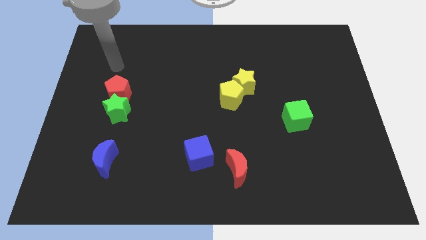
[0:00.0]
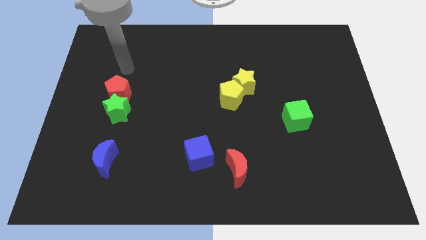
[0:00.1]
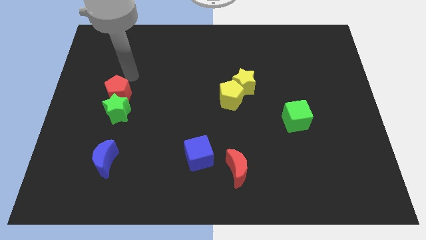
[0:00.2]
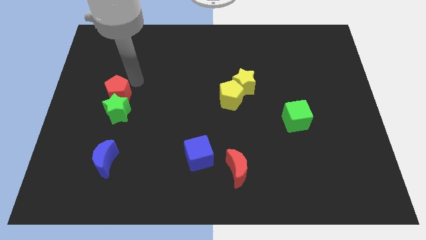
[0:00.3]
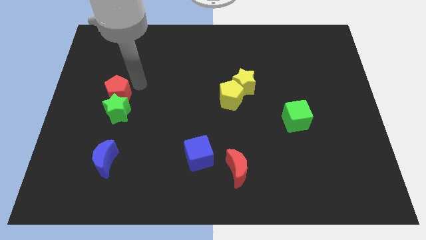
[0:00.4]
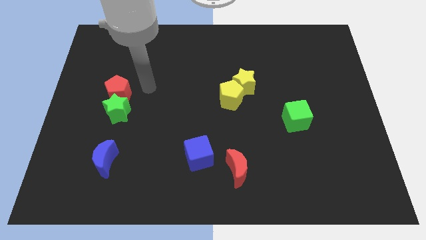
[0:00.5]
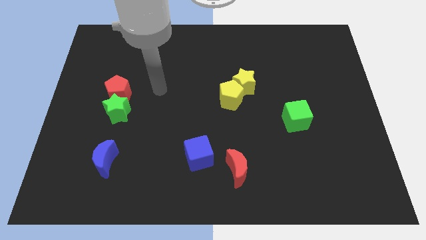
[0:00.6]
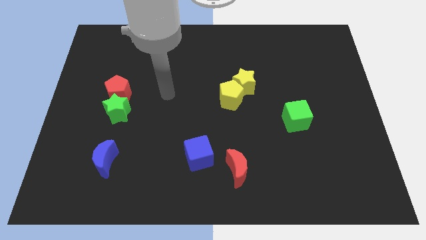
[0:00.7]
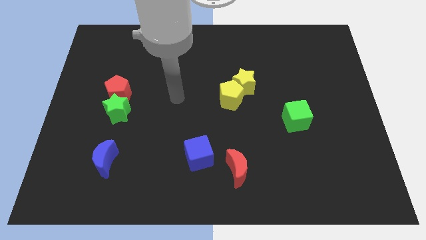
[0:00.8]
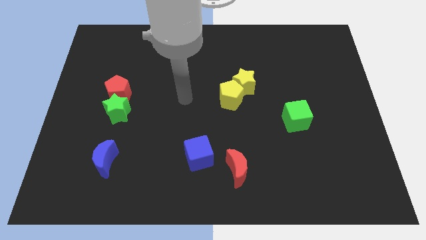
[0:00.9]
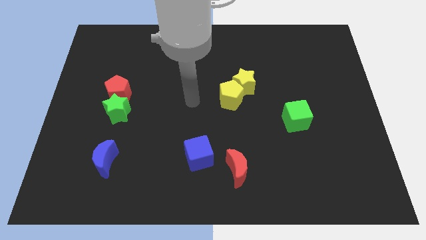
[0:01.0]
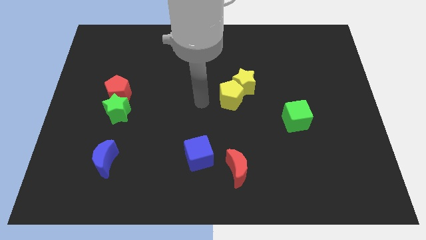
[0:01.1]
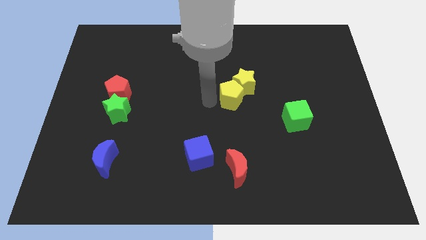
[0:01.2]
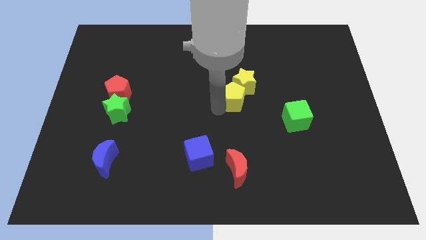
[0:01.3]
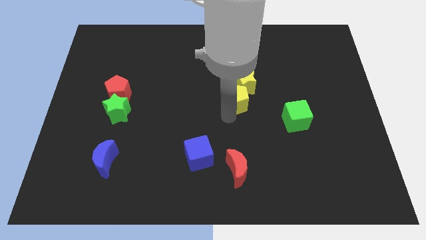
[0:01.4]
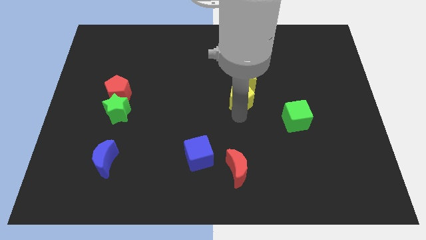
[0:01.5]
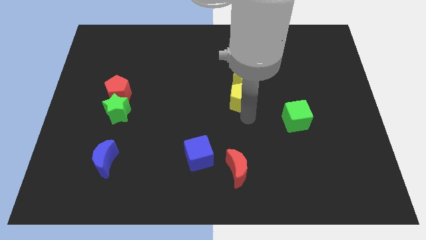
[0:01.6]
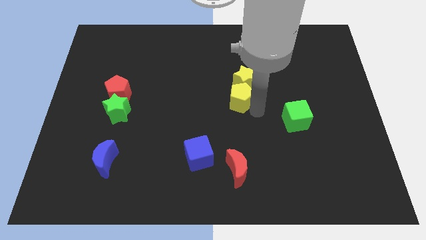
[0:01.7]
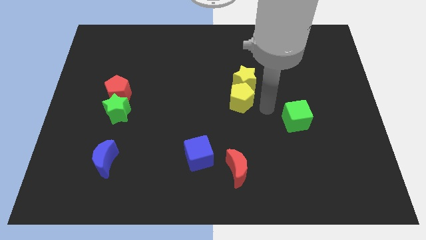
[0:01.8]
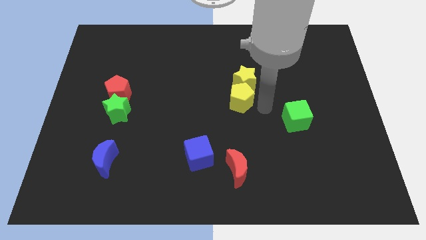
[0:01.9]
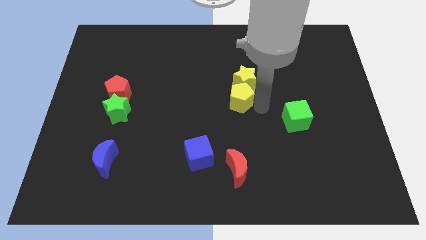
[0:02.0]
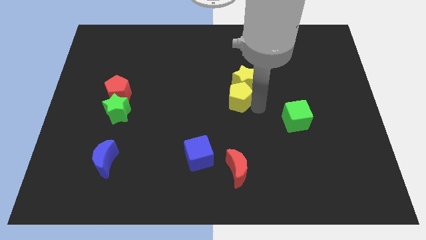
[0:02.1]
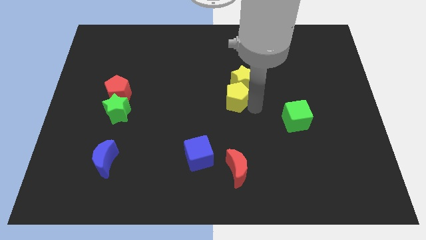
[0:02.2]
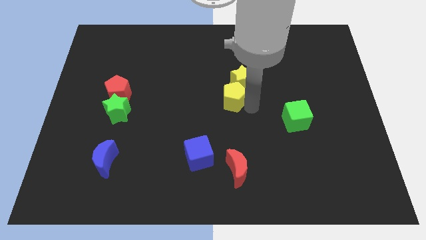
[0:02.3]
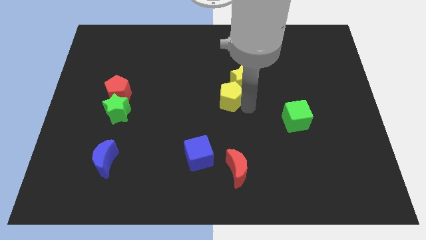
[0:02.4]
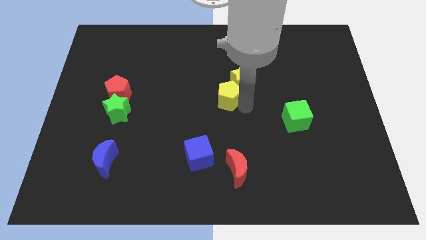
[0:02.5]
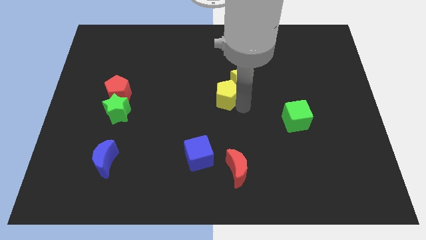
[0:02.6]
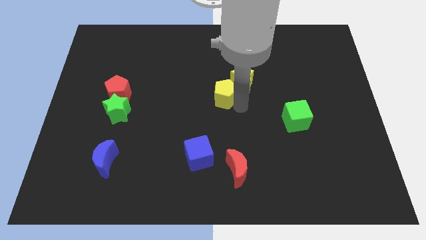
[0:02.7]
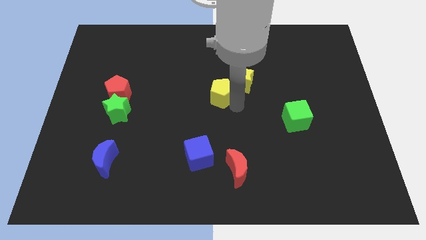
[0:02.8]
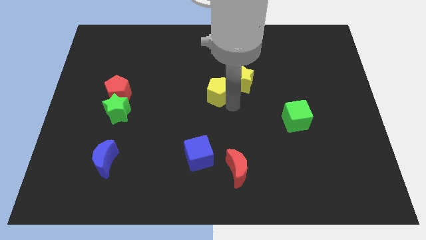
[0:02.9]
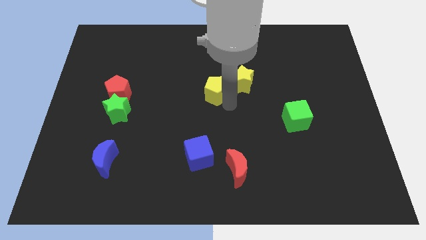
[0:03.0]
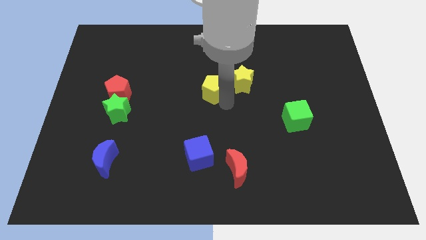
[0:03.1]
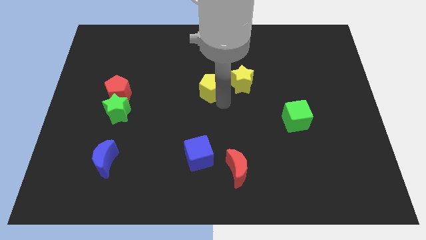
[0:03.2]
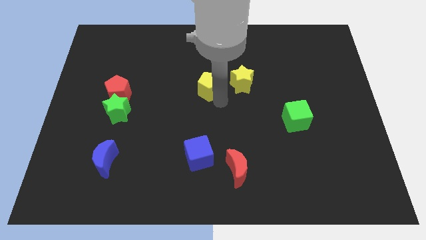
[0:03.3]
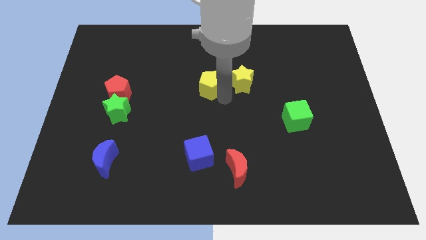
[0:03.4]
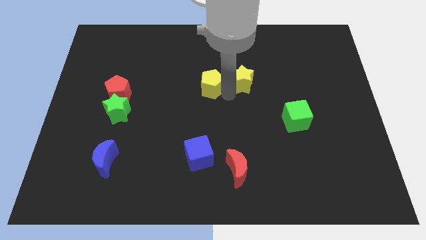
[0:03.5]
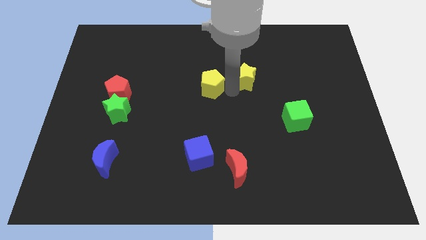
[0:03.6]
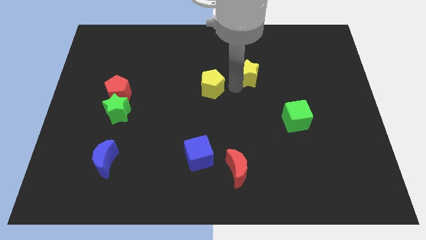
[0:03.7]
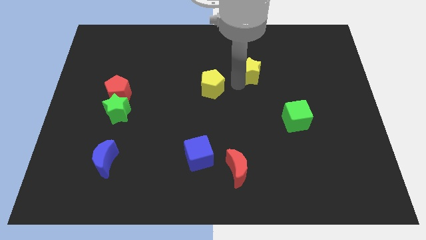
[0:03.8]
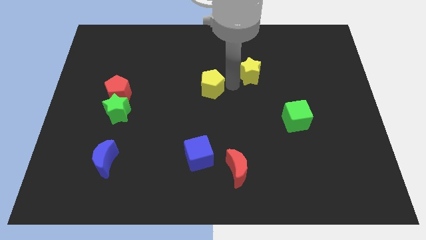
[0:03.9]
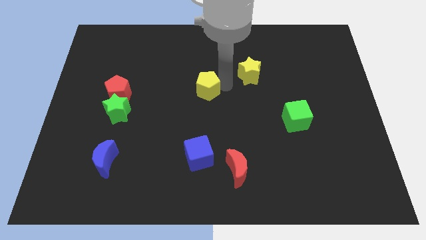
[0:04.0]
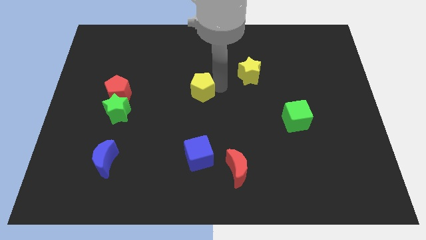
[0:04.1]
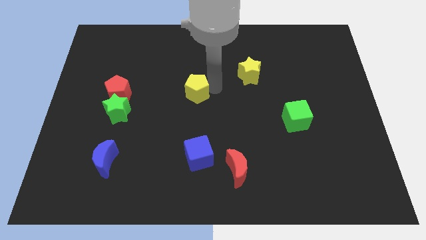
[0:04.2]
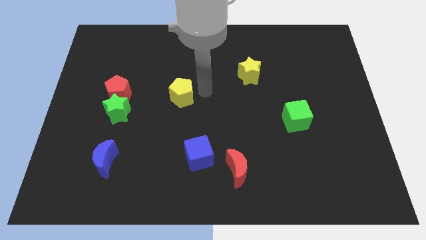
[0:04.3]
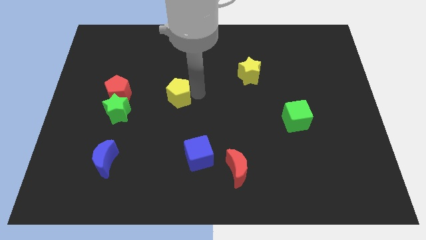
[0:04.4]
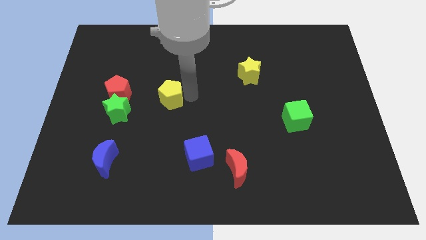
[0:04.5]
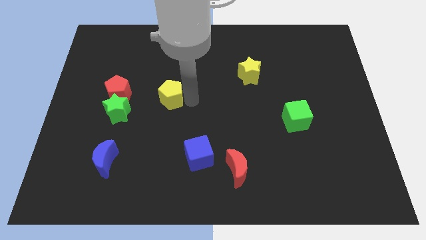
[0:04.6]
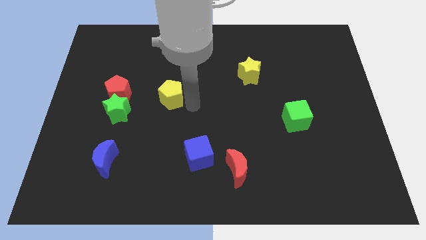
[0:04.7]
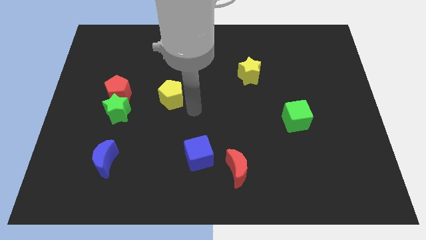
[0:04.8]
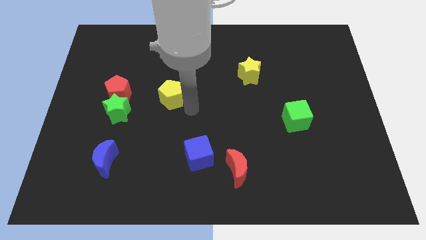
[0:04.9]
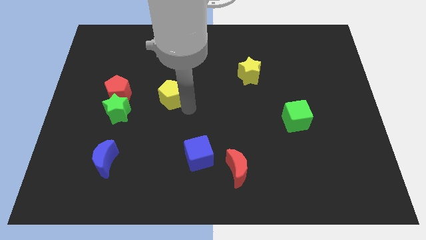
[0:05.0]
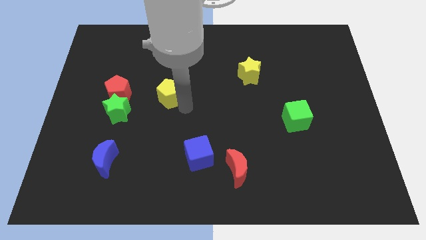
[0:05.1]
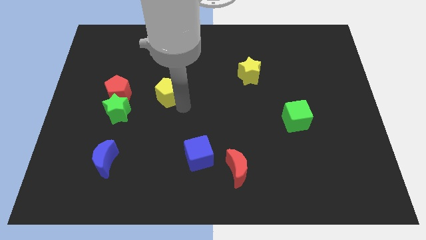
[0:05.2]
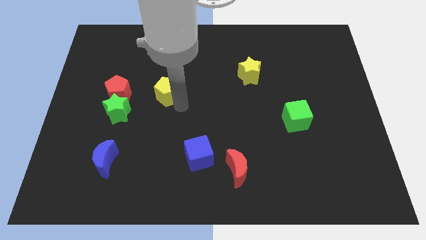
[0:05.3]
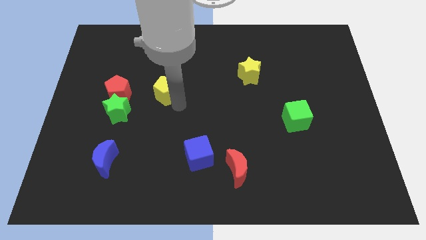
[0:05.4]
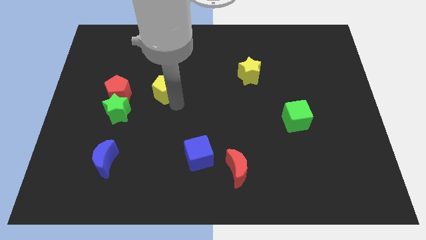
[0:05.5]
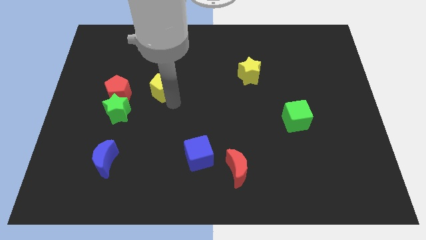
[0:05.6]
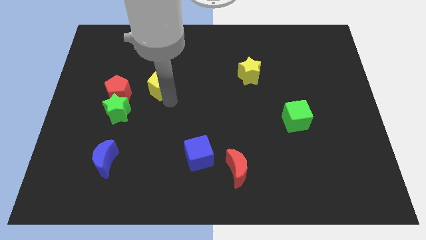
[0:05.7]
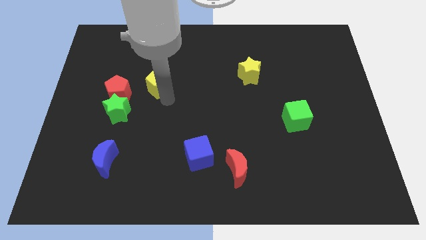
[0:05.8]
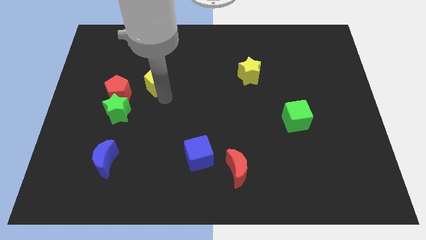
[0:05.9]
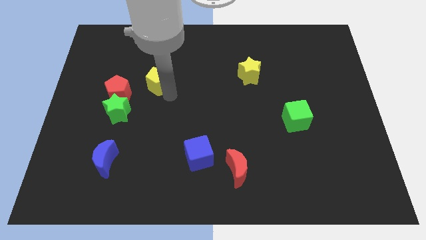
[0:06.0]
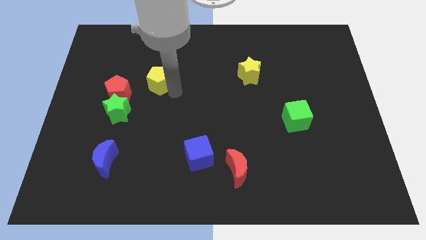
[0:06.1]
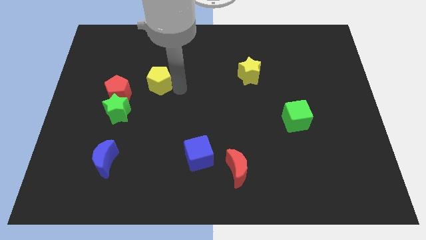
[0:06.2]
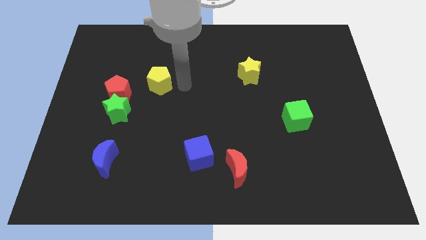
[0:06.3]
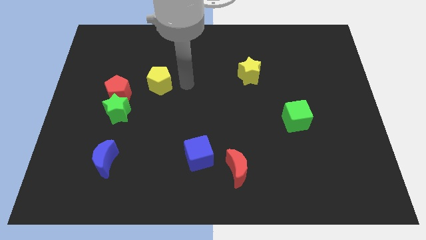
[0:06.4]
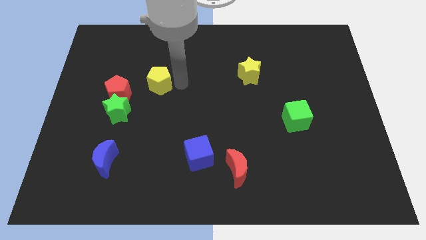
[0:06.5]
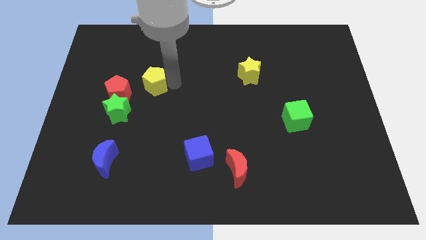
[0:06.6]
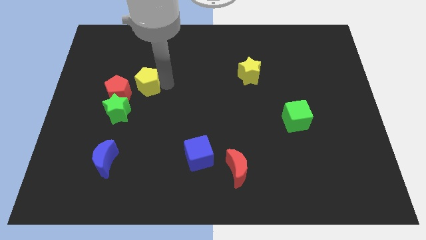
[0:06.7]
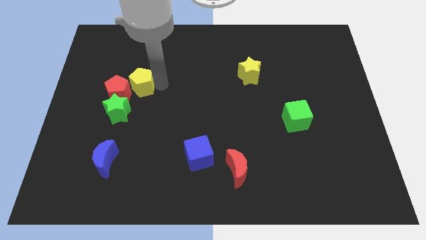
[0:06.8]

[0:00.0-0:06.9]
push the yellow pentagon to the left

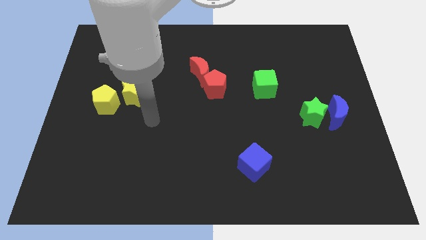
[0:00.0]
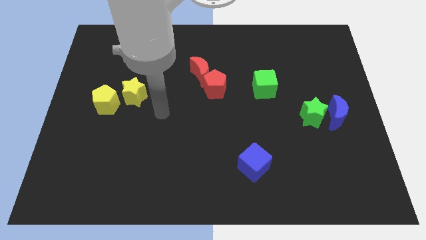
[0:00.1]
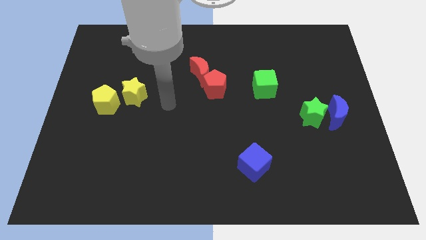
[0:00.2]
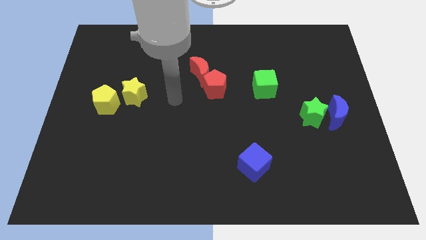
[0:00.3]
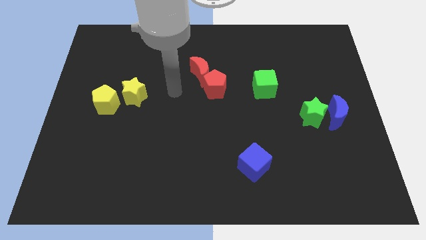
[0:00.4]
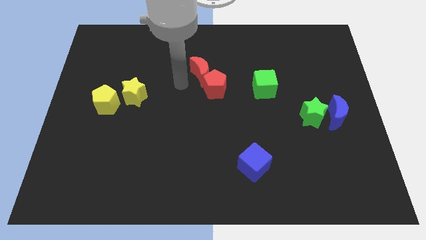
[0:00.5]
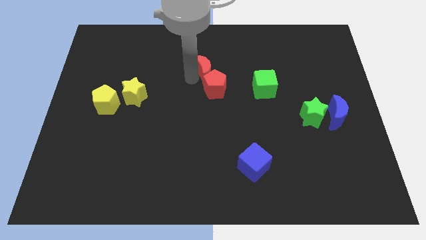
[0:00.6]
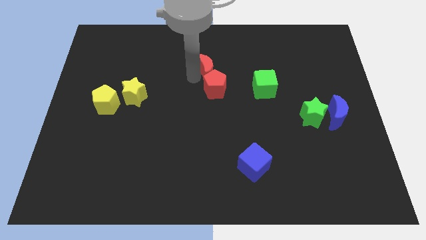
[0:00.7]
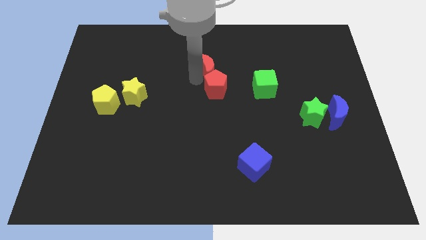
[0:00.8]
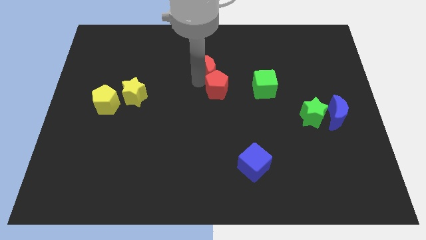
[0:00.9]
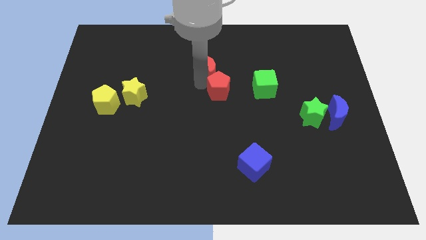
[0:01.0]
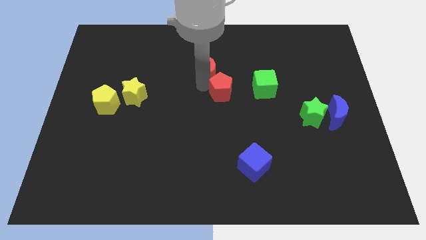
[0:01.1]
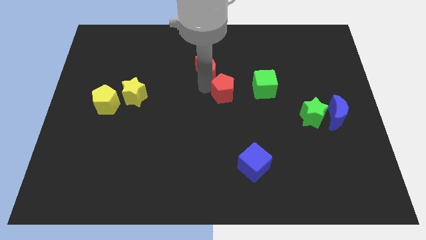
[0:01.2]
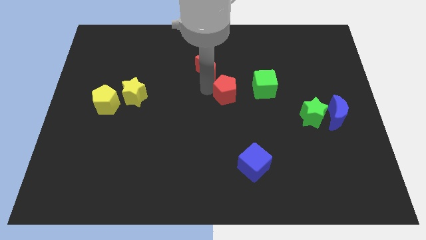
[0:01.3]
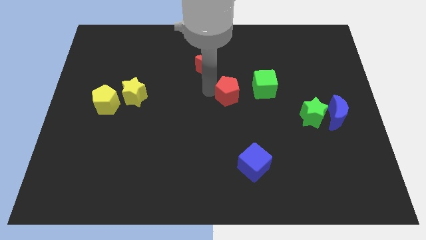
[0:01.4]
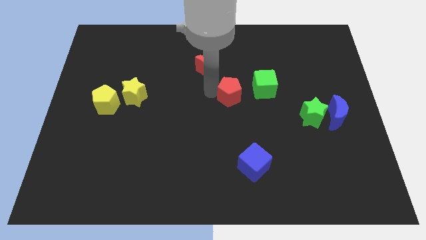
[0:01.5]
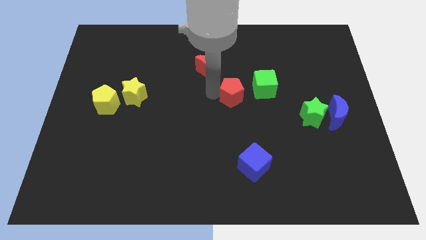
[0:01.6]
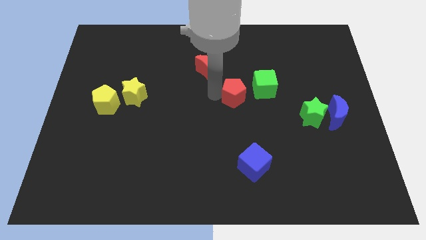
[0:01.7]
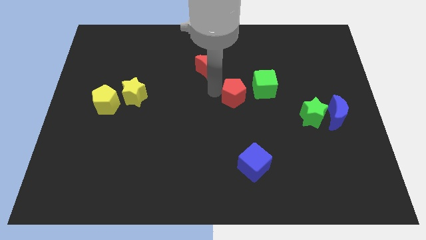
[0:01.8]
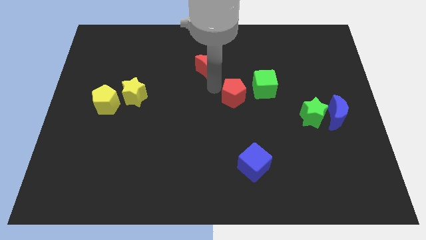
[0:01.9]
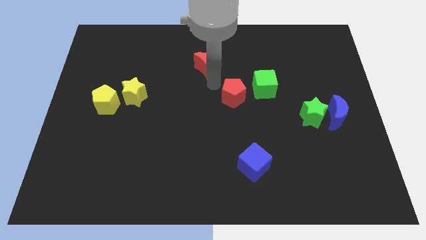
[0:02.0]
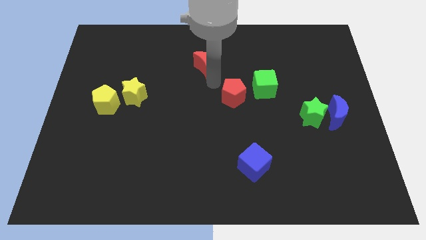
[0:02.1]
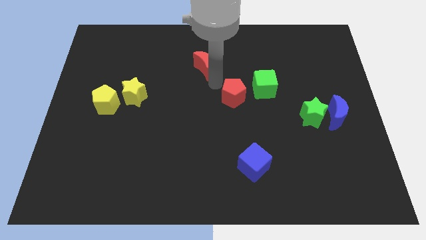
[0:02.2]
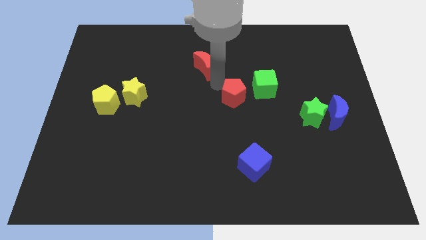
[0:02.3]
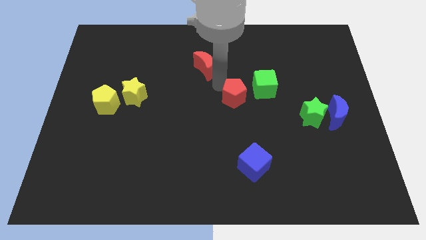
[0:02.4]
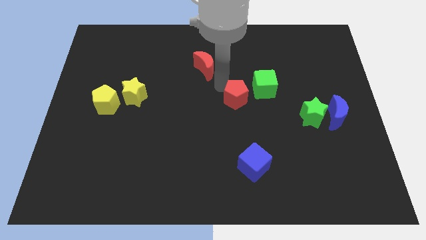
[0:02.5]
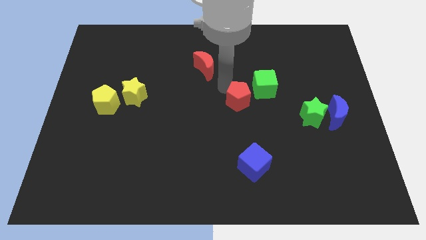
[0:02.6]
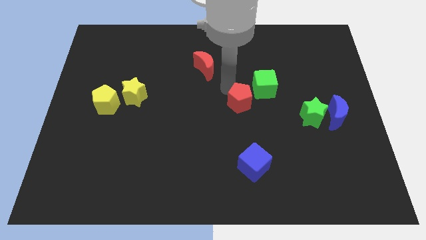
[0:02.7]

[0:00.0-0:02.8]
move the red pentagon downwards and then to the right slightly
